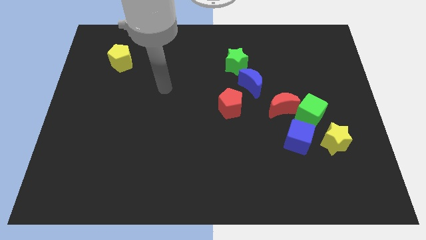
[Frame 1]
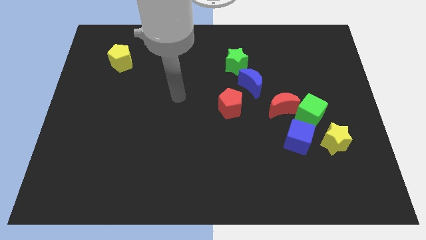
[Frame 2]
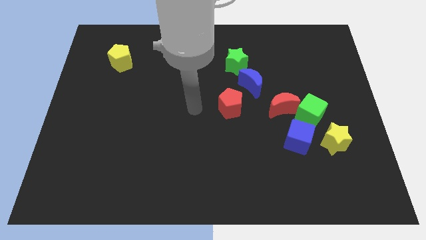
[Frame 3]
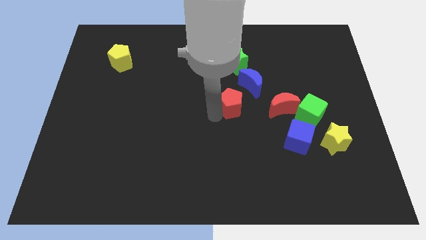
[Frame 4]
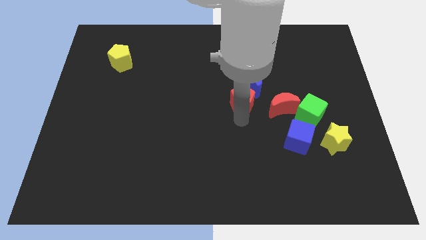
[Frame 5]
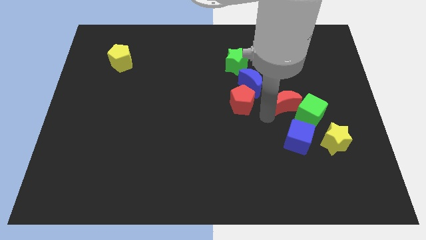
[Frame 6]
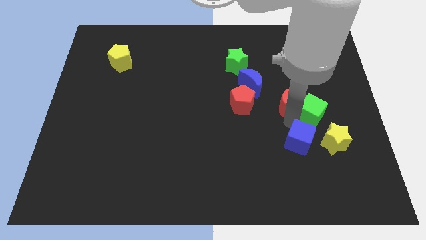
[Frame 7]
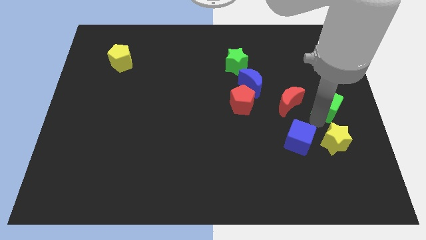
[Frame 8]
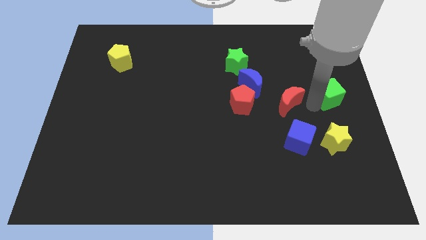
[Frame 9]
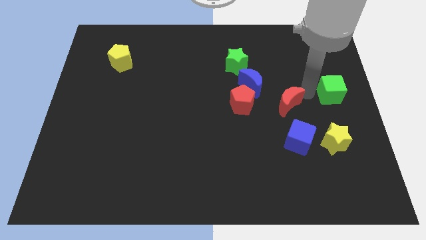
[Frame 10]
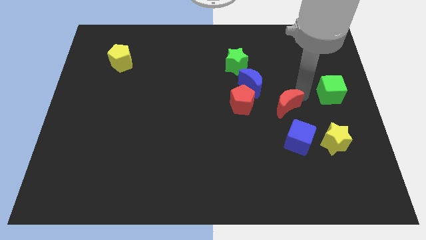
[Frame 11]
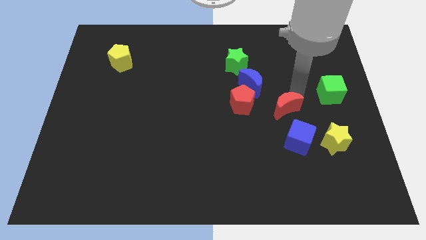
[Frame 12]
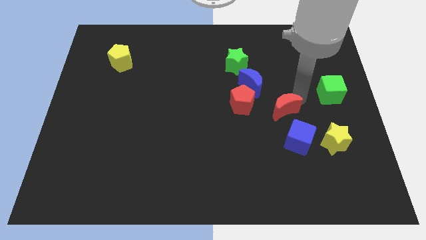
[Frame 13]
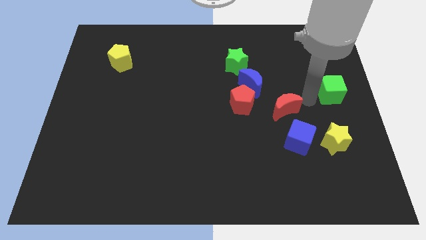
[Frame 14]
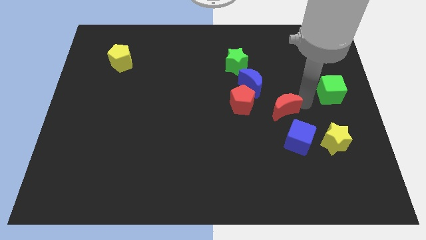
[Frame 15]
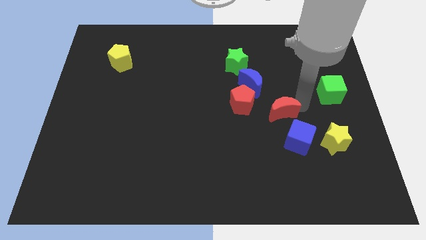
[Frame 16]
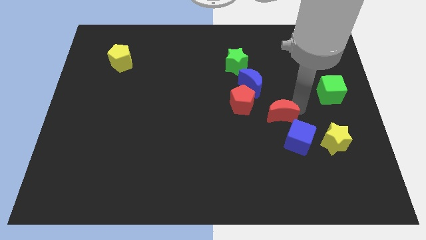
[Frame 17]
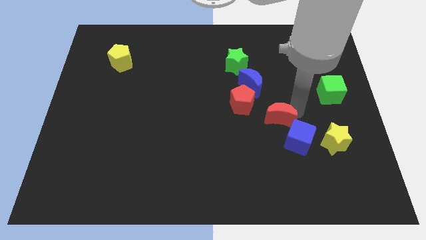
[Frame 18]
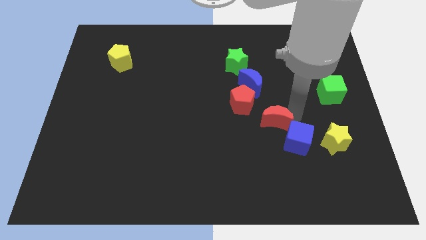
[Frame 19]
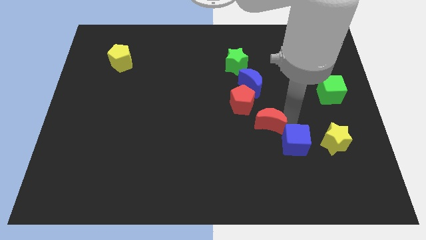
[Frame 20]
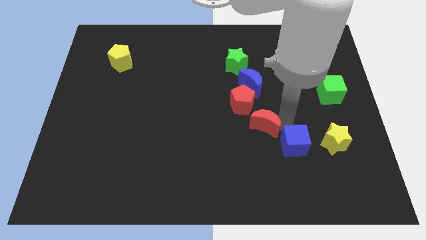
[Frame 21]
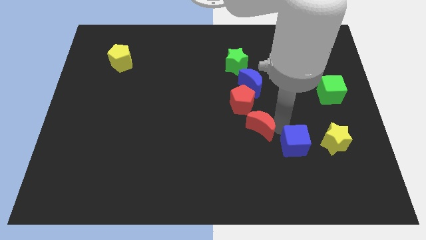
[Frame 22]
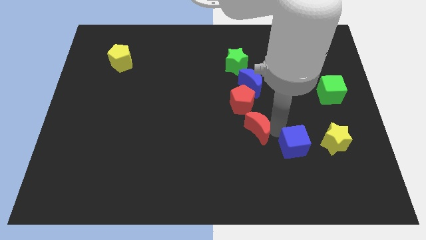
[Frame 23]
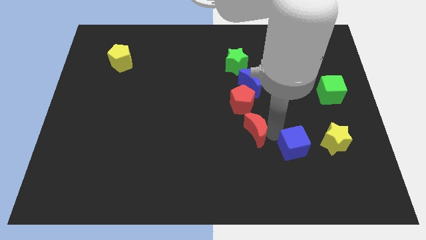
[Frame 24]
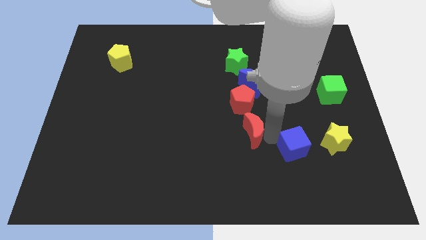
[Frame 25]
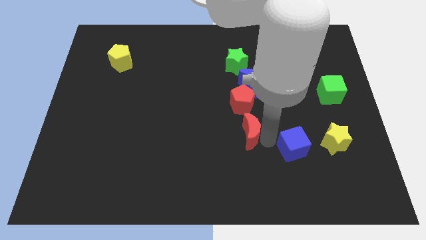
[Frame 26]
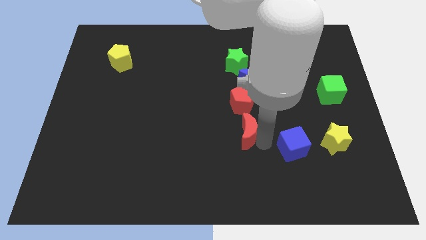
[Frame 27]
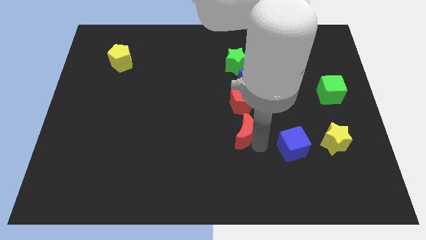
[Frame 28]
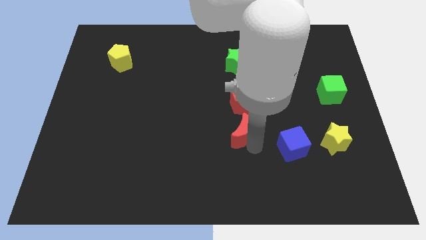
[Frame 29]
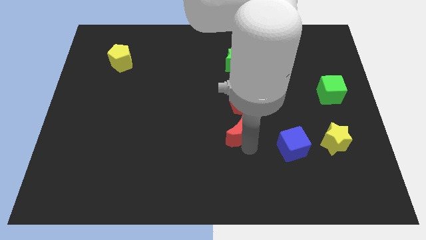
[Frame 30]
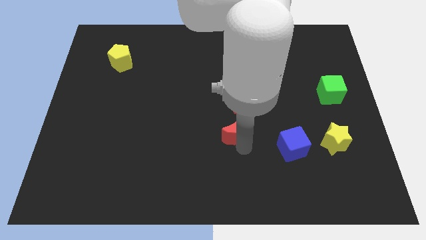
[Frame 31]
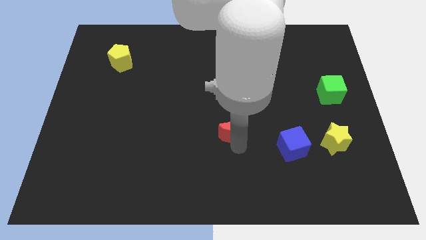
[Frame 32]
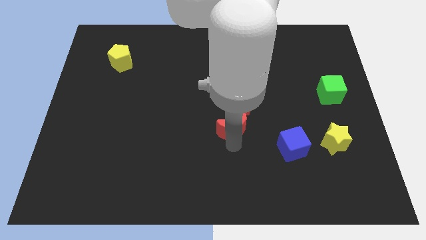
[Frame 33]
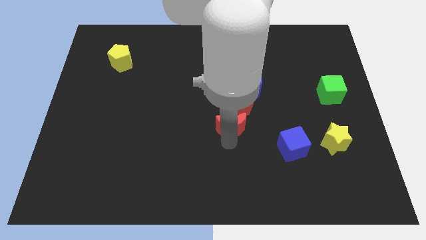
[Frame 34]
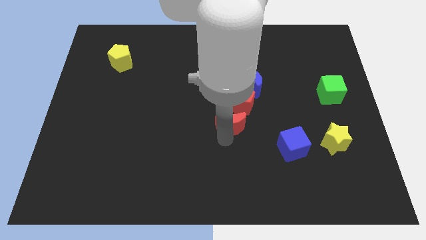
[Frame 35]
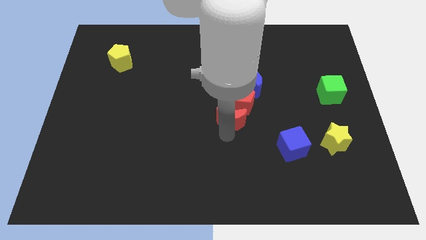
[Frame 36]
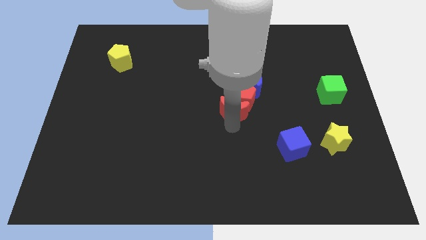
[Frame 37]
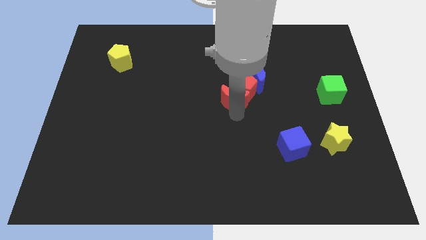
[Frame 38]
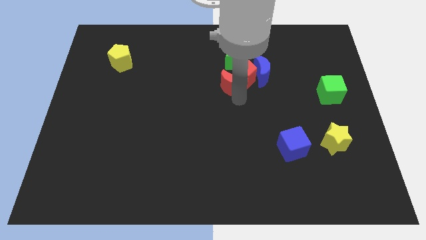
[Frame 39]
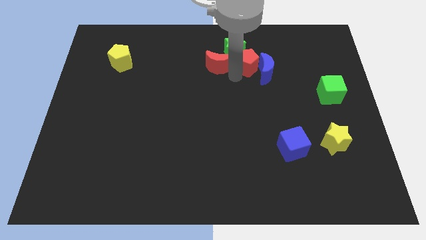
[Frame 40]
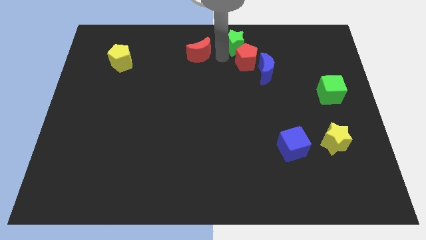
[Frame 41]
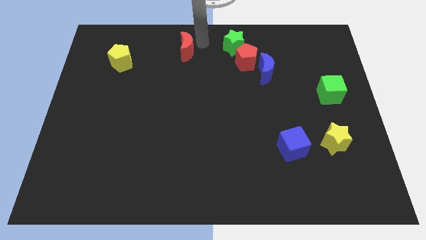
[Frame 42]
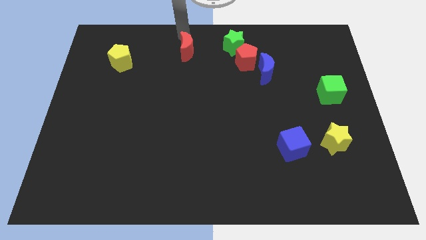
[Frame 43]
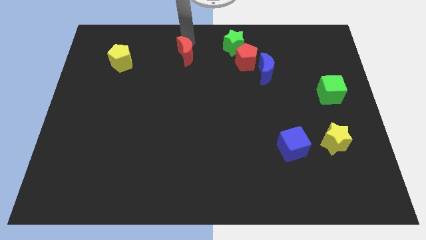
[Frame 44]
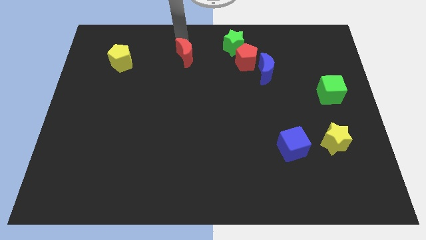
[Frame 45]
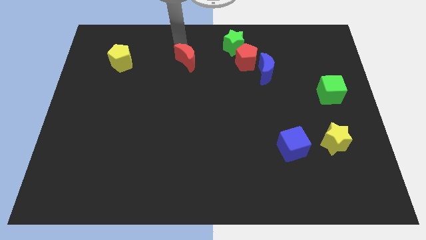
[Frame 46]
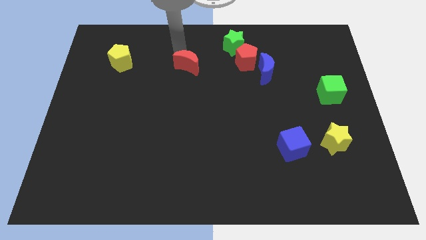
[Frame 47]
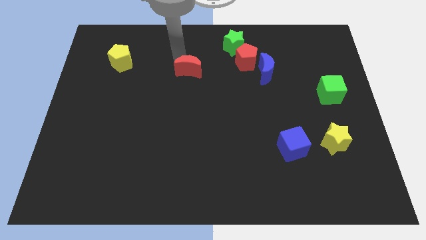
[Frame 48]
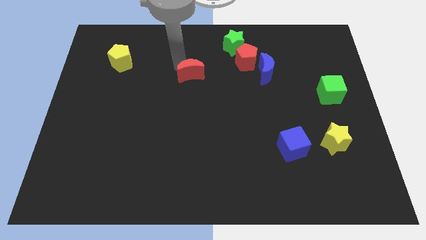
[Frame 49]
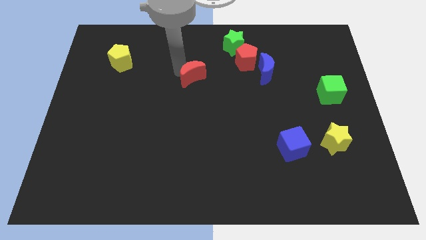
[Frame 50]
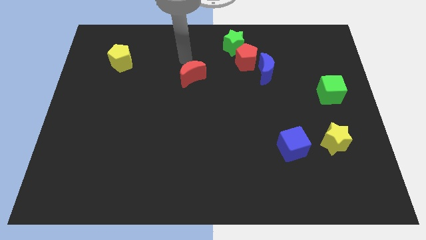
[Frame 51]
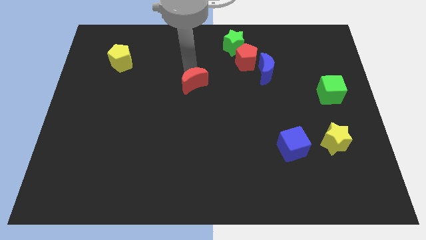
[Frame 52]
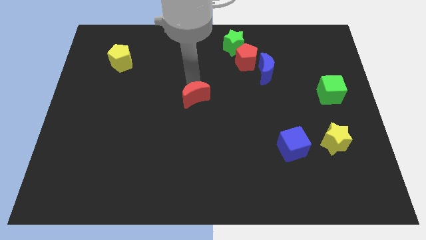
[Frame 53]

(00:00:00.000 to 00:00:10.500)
slide the red moon left

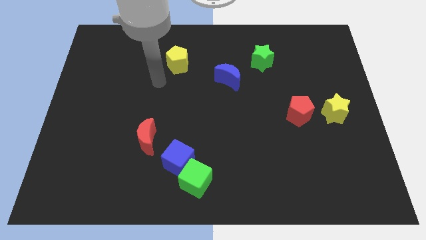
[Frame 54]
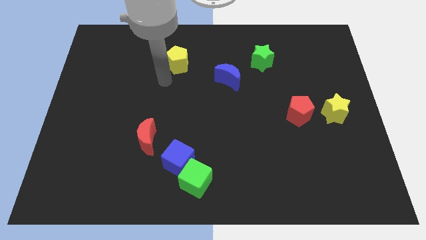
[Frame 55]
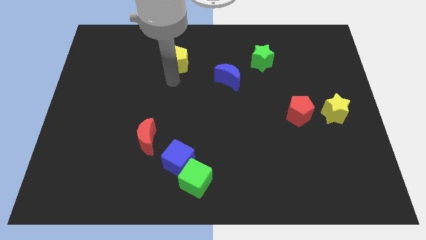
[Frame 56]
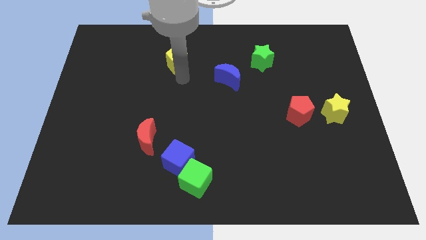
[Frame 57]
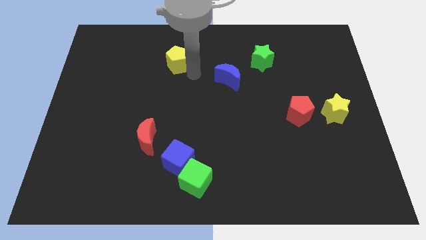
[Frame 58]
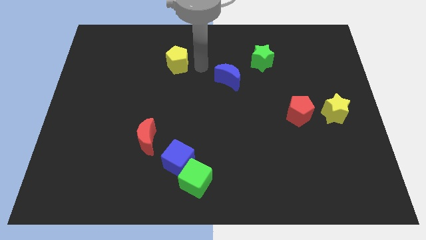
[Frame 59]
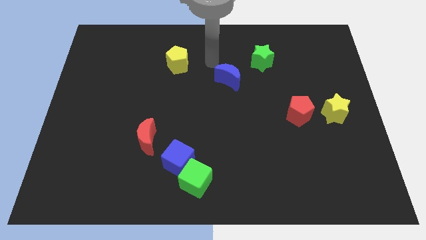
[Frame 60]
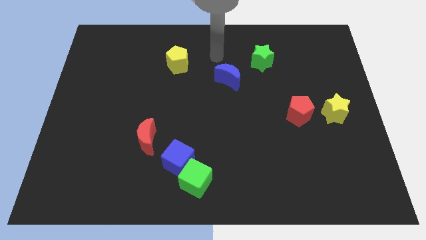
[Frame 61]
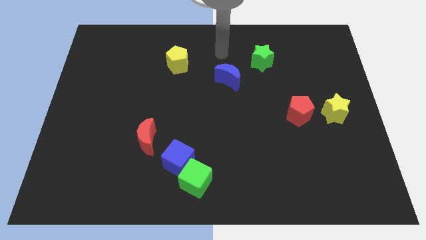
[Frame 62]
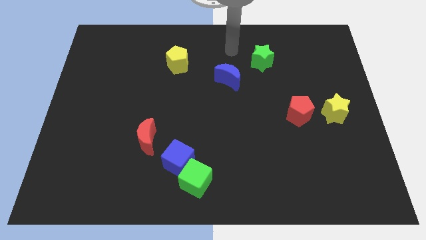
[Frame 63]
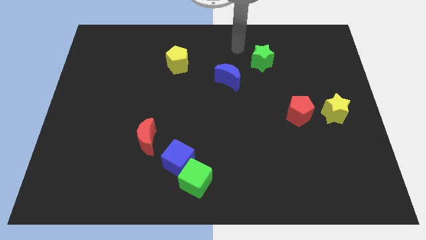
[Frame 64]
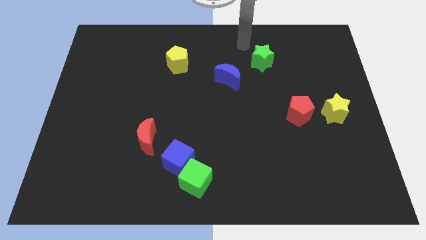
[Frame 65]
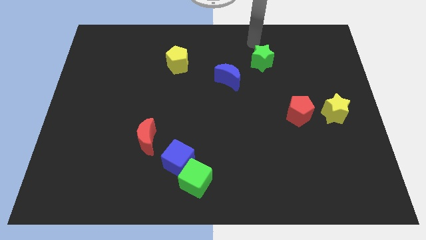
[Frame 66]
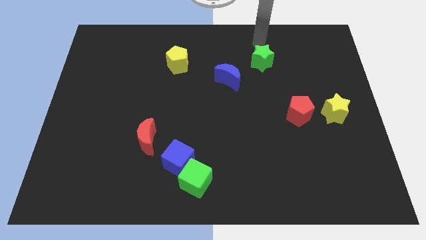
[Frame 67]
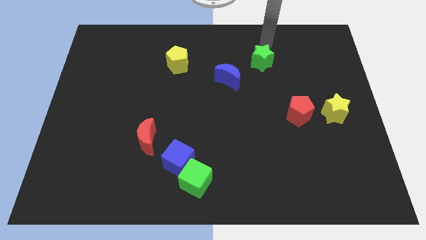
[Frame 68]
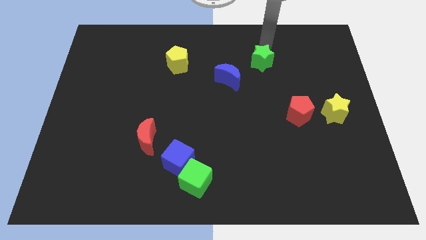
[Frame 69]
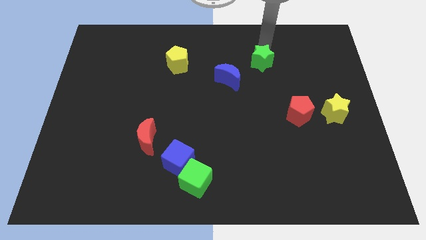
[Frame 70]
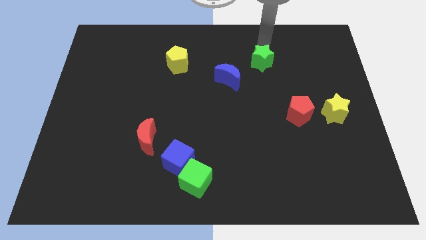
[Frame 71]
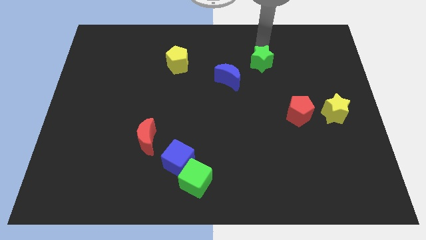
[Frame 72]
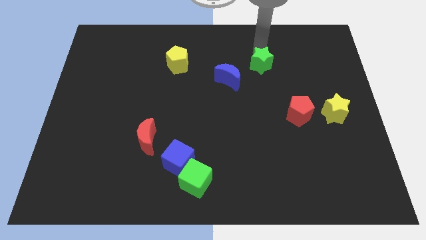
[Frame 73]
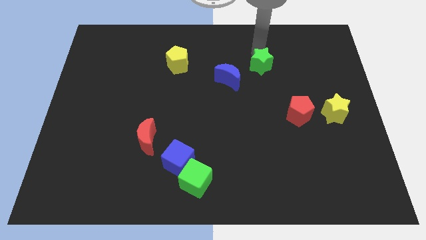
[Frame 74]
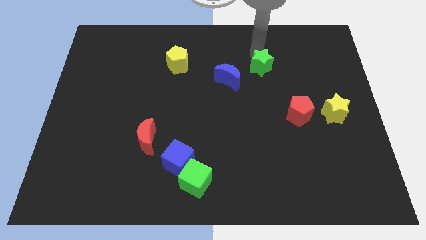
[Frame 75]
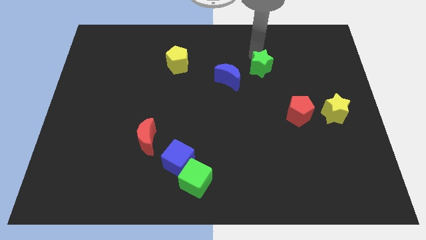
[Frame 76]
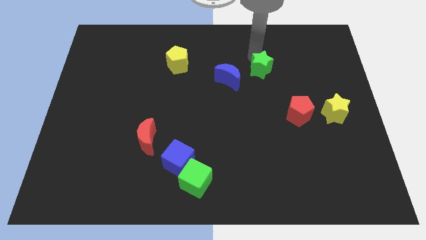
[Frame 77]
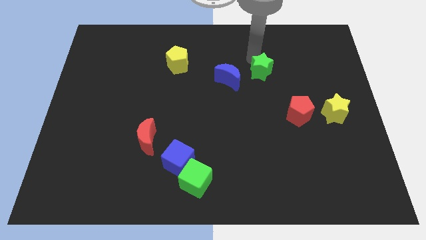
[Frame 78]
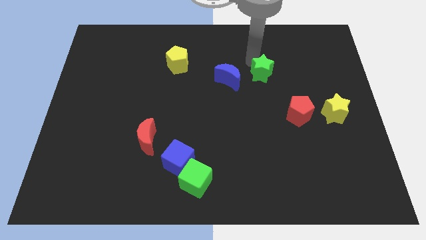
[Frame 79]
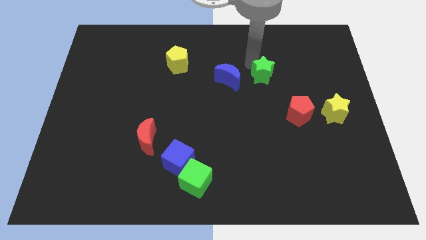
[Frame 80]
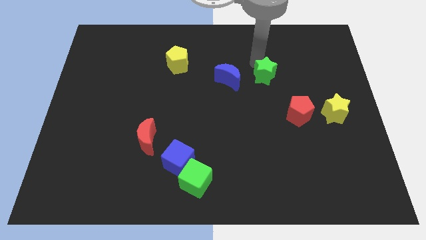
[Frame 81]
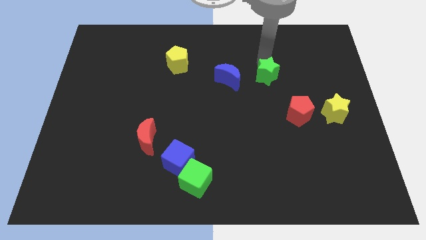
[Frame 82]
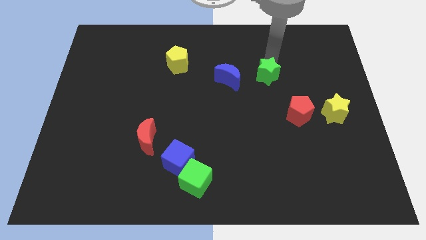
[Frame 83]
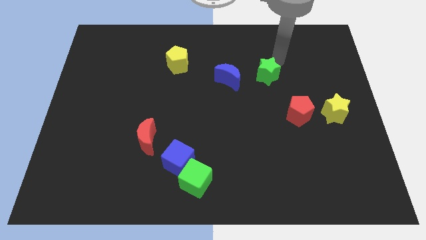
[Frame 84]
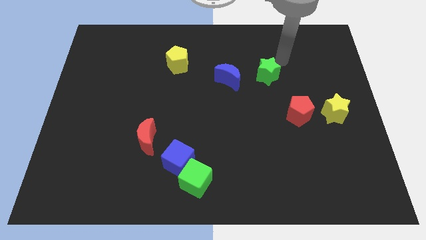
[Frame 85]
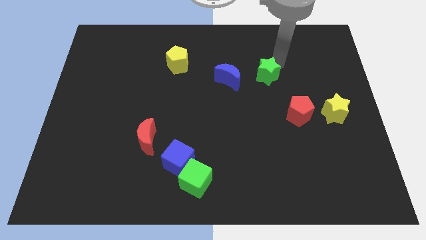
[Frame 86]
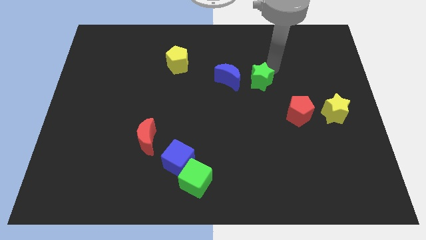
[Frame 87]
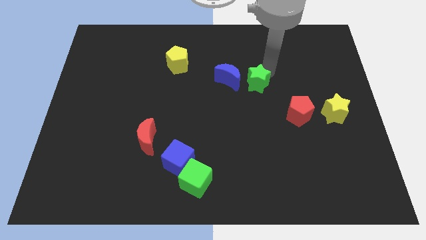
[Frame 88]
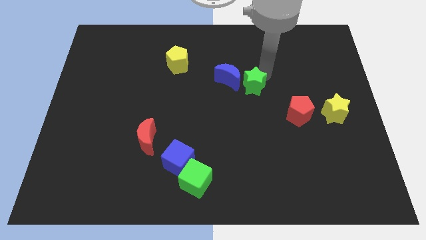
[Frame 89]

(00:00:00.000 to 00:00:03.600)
slightly move the green star diagonally down and left
